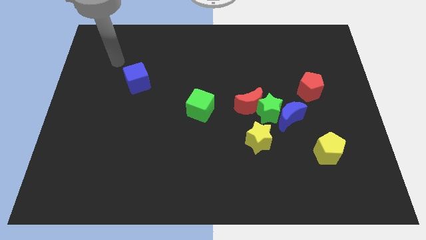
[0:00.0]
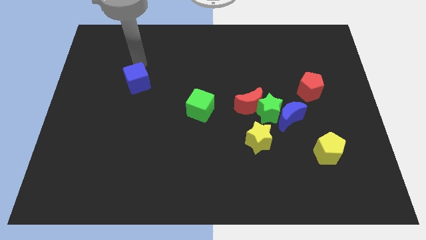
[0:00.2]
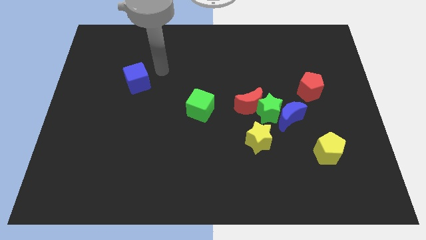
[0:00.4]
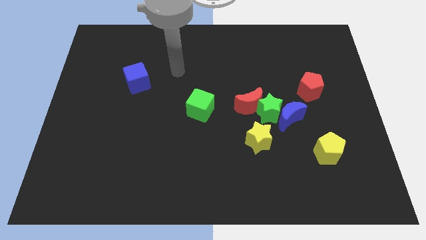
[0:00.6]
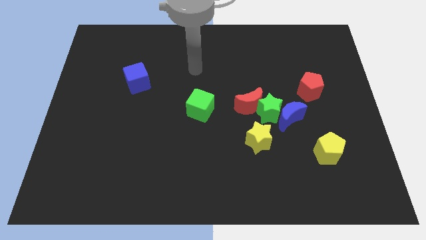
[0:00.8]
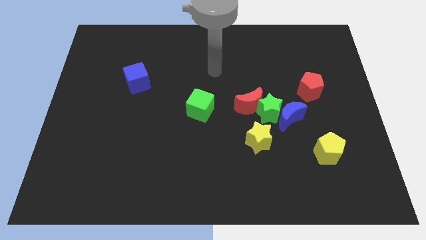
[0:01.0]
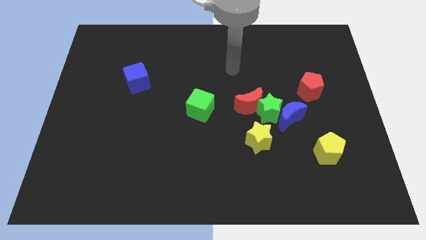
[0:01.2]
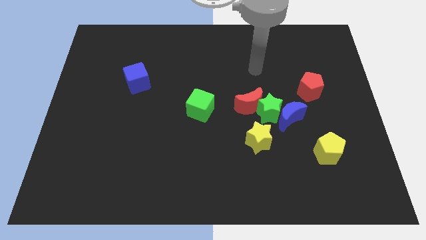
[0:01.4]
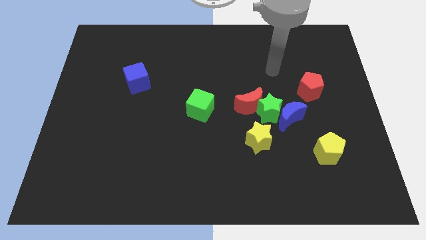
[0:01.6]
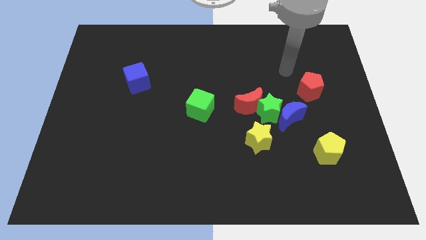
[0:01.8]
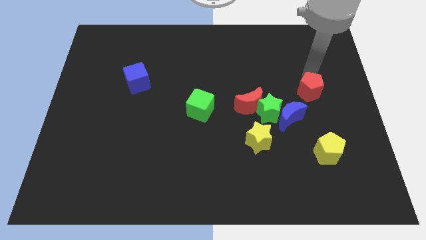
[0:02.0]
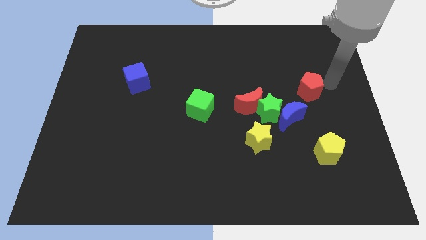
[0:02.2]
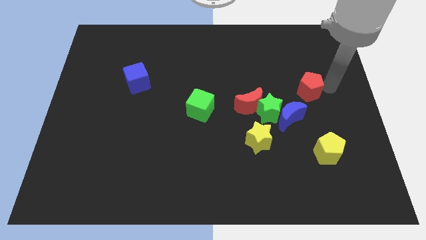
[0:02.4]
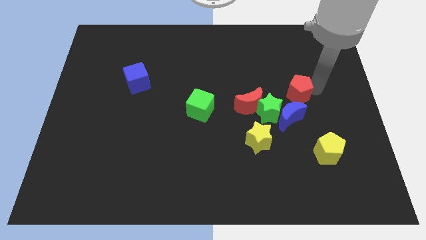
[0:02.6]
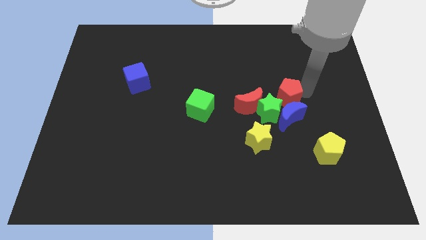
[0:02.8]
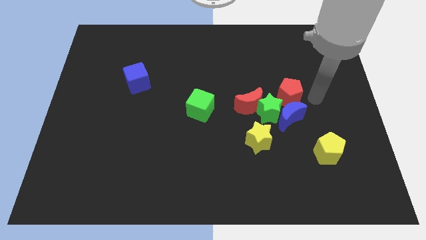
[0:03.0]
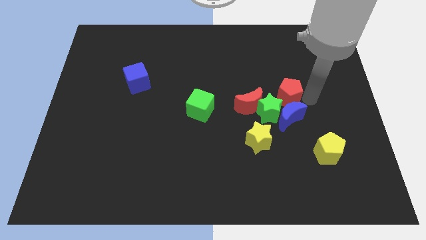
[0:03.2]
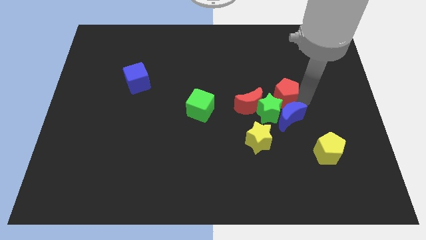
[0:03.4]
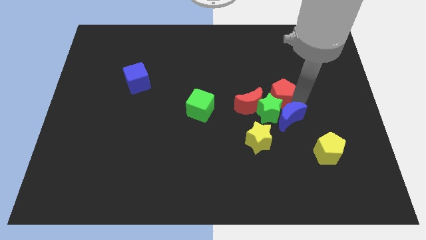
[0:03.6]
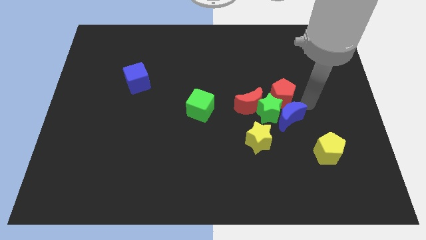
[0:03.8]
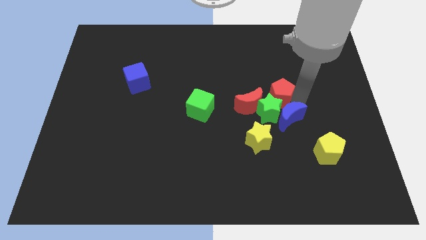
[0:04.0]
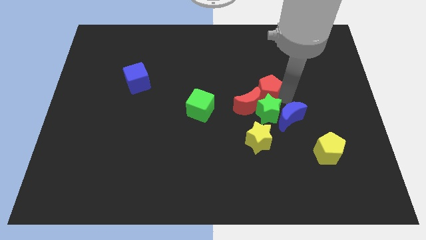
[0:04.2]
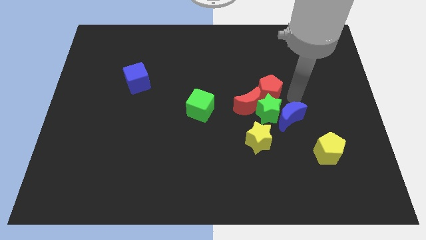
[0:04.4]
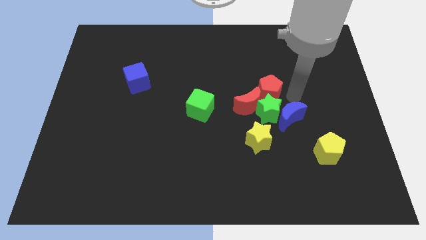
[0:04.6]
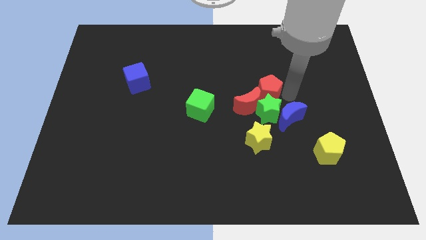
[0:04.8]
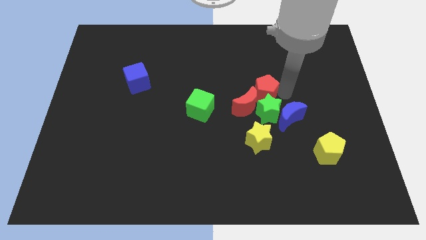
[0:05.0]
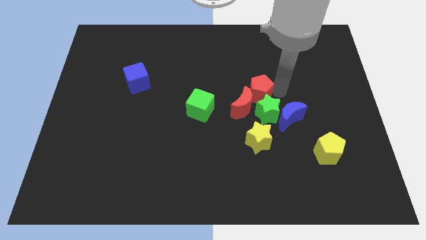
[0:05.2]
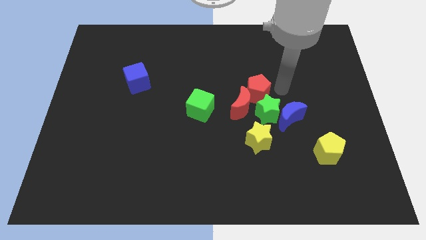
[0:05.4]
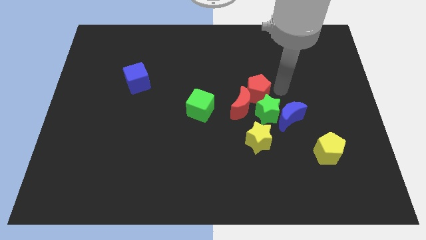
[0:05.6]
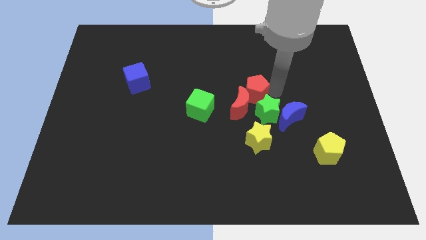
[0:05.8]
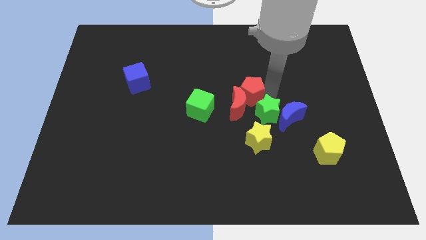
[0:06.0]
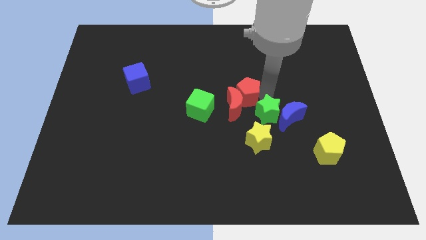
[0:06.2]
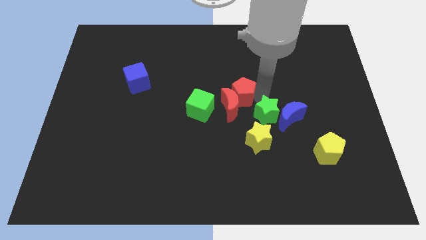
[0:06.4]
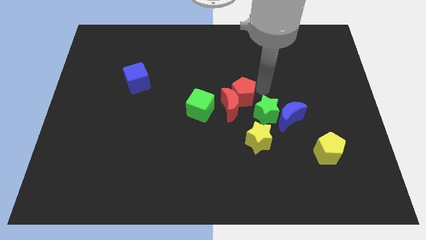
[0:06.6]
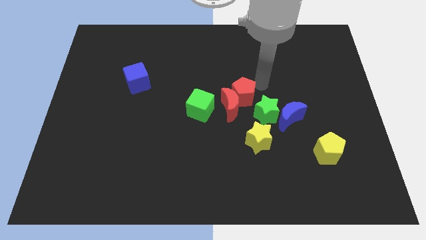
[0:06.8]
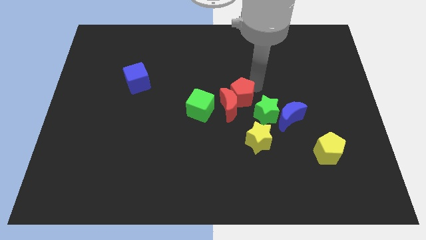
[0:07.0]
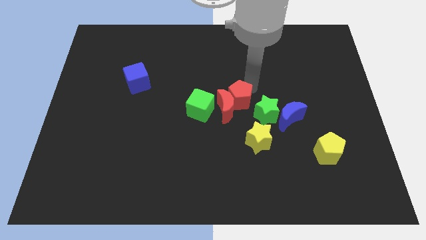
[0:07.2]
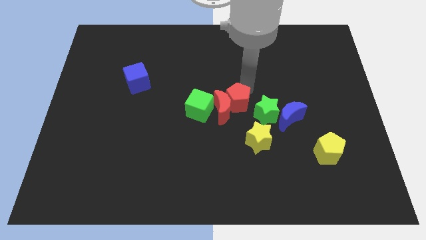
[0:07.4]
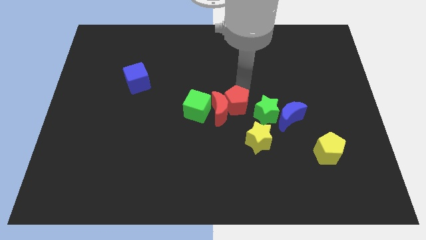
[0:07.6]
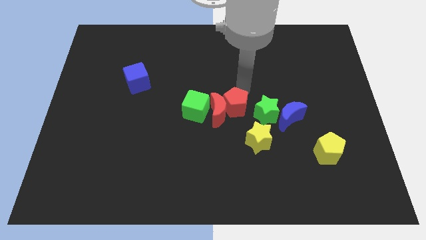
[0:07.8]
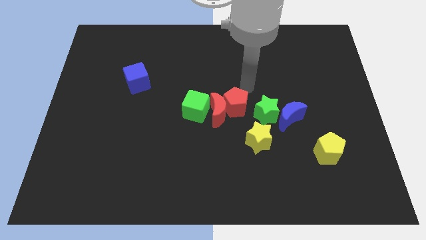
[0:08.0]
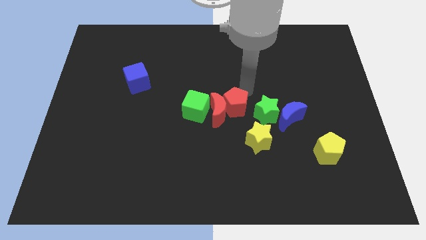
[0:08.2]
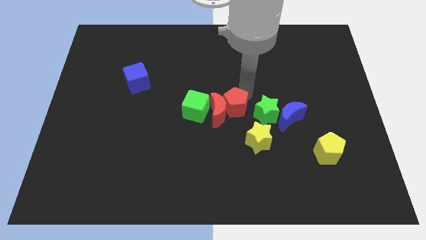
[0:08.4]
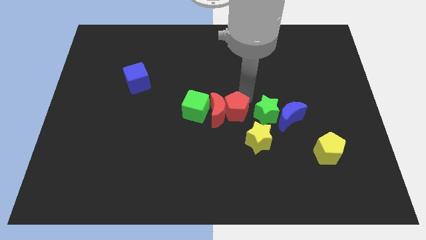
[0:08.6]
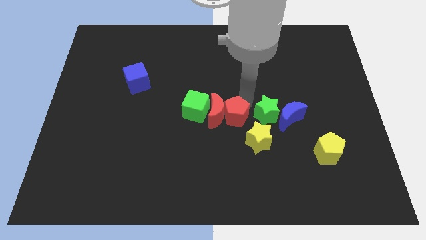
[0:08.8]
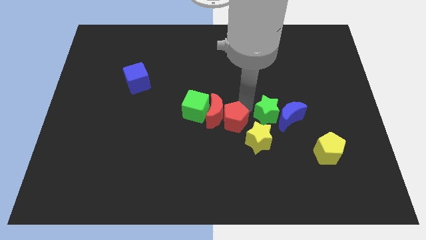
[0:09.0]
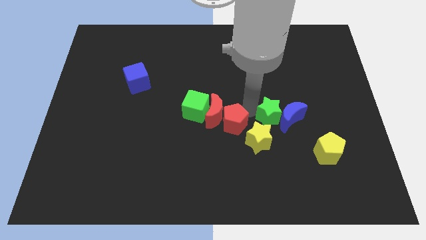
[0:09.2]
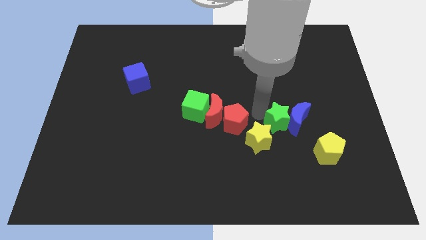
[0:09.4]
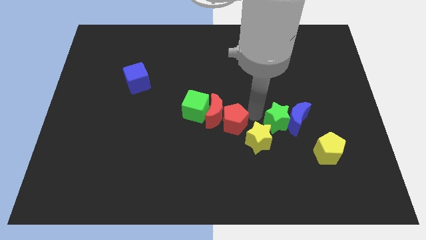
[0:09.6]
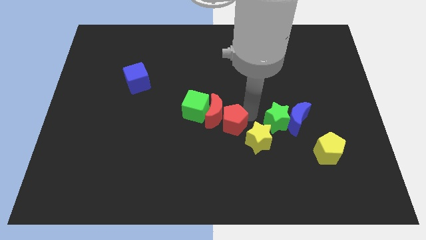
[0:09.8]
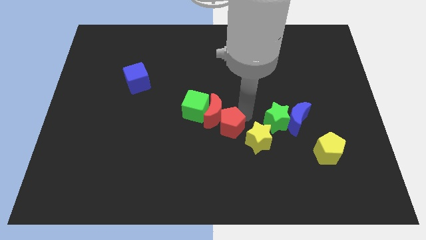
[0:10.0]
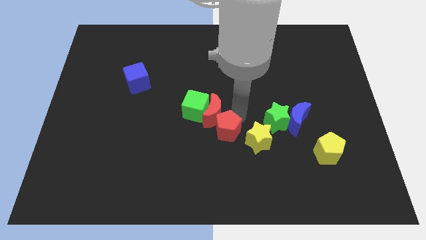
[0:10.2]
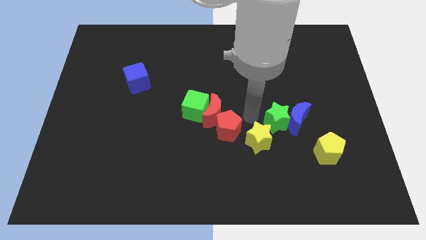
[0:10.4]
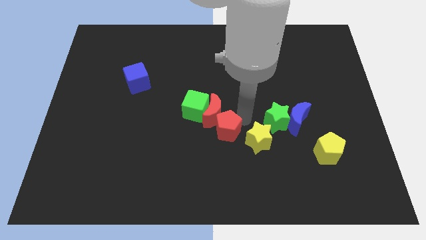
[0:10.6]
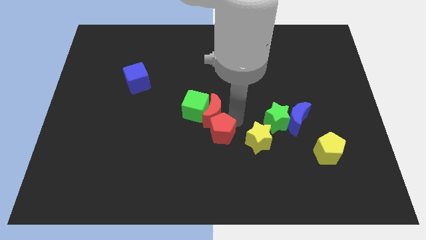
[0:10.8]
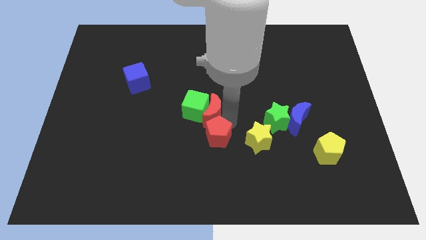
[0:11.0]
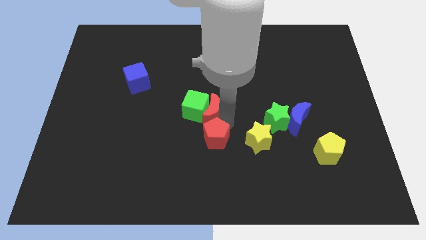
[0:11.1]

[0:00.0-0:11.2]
push the red pentagon to the bottom of the green cube

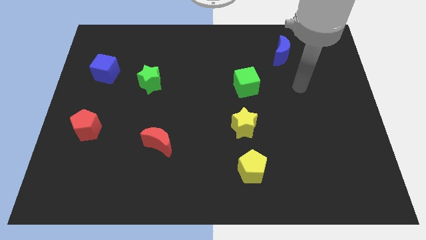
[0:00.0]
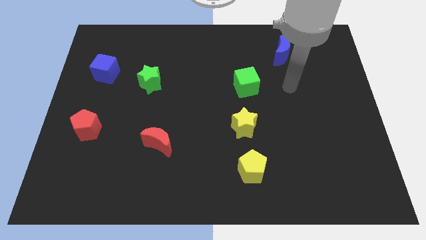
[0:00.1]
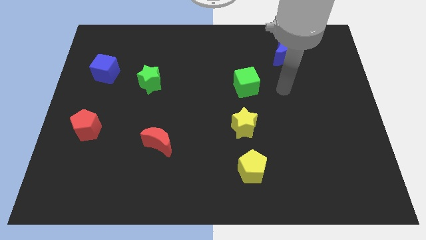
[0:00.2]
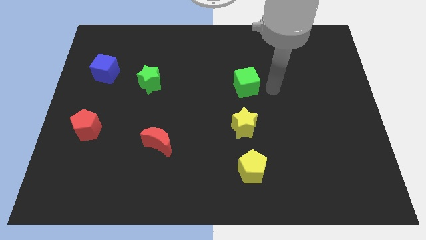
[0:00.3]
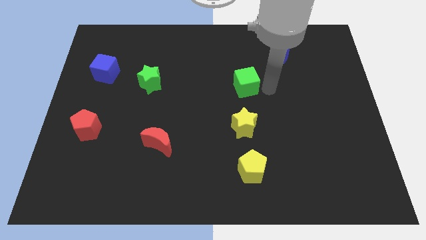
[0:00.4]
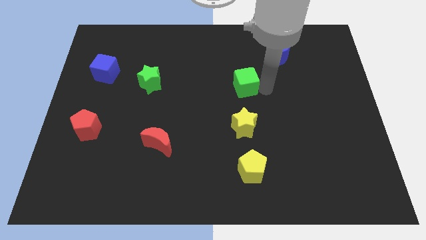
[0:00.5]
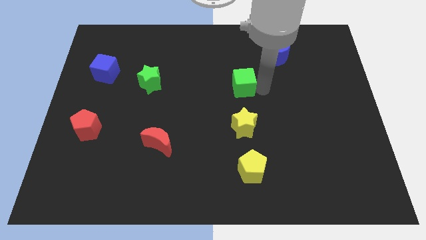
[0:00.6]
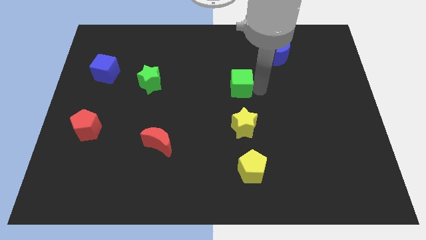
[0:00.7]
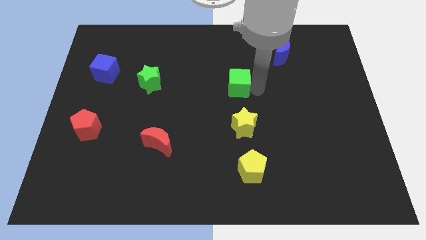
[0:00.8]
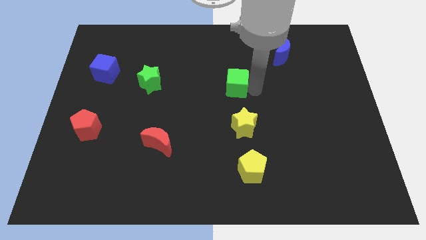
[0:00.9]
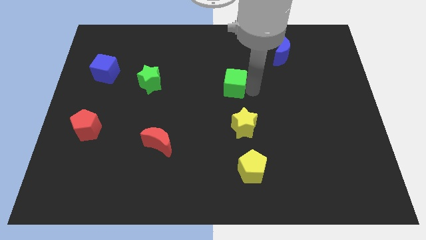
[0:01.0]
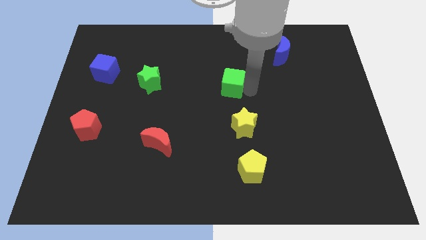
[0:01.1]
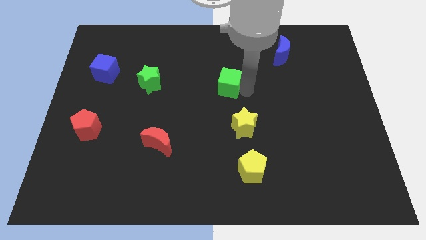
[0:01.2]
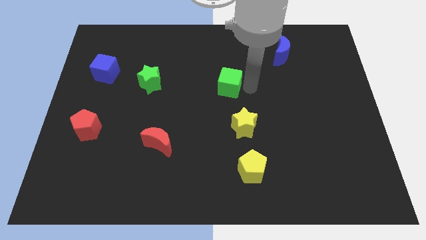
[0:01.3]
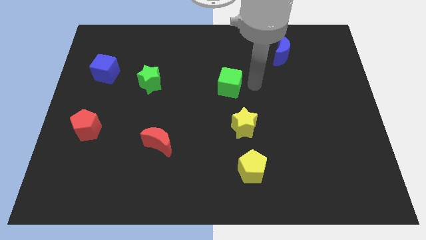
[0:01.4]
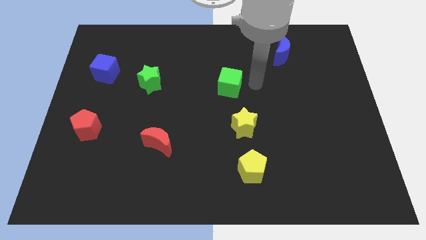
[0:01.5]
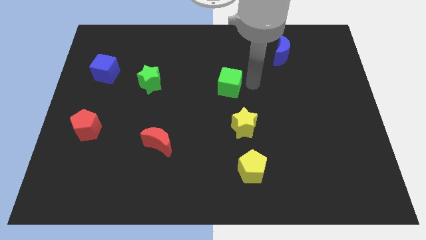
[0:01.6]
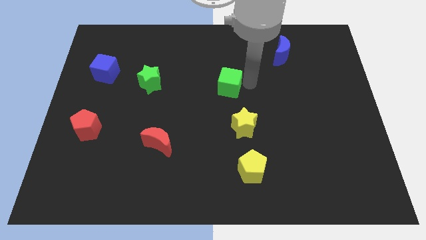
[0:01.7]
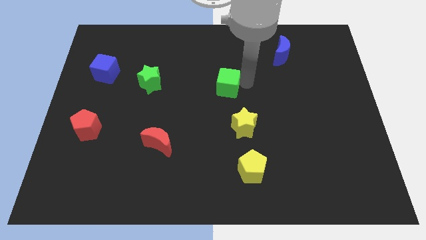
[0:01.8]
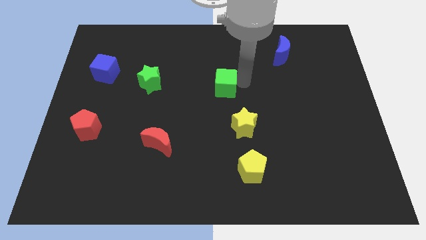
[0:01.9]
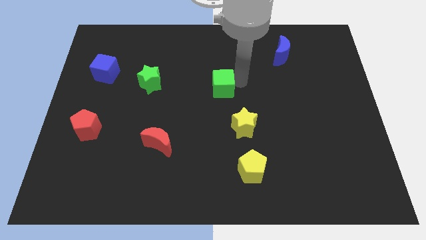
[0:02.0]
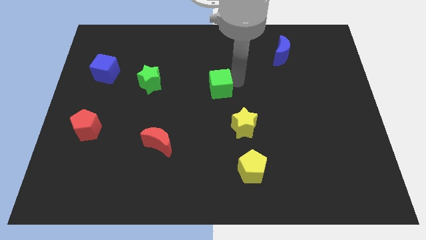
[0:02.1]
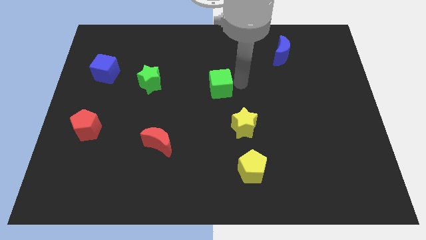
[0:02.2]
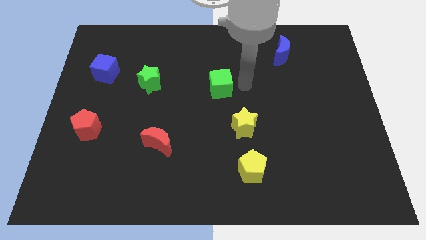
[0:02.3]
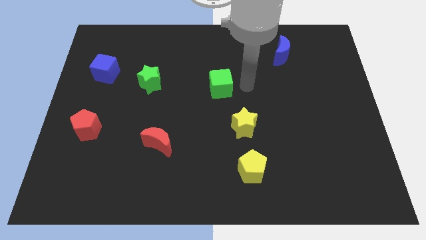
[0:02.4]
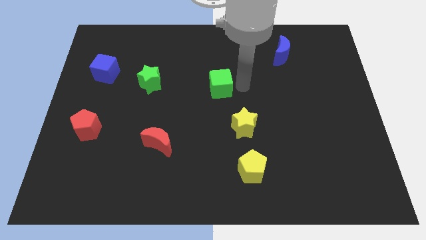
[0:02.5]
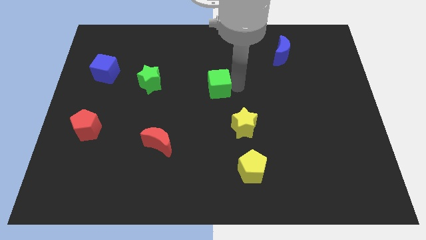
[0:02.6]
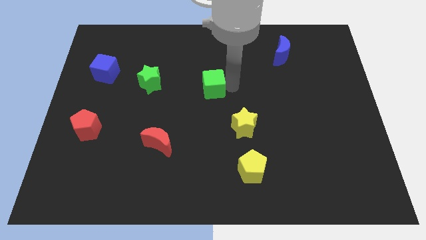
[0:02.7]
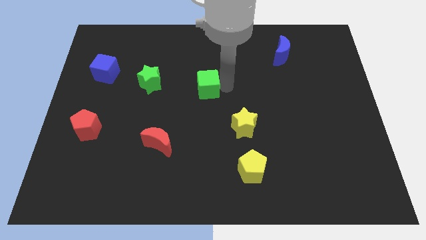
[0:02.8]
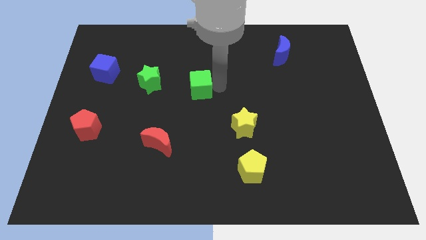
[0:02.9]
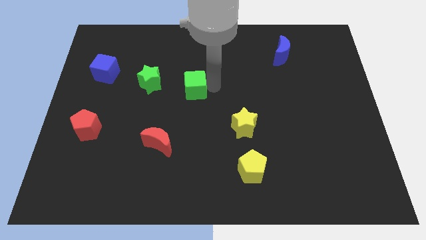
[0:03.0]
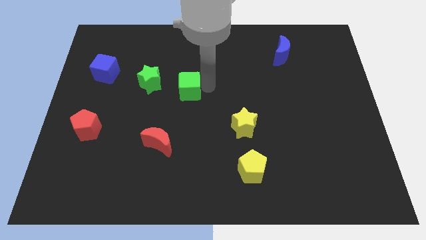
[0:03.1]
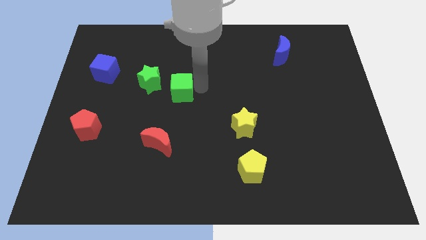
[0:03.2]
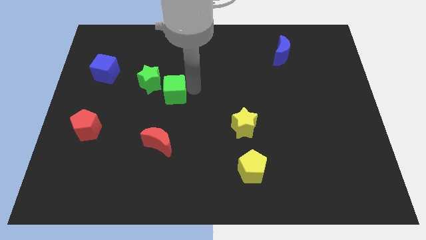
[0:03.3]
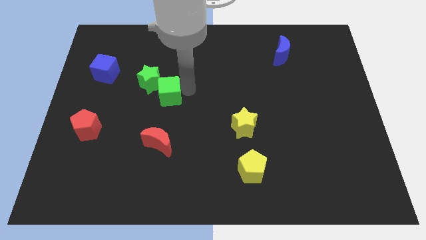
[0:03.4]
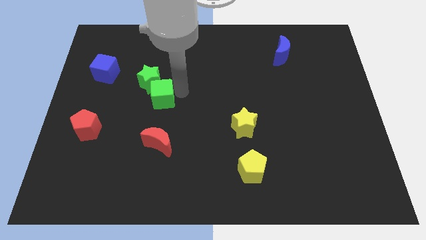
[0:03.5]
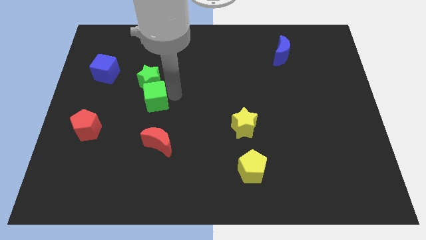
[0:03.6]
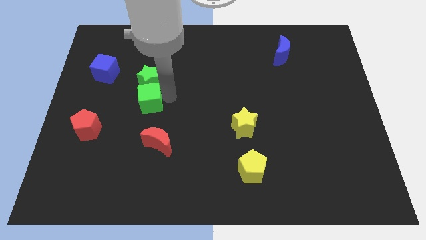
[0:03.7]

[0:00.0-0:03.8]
slide the green cube to the bottom left side of the green star
